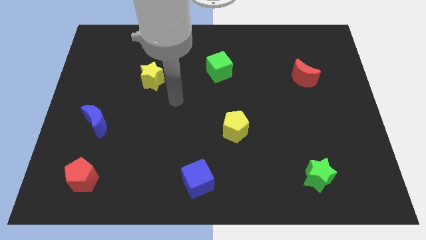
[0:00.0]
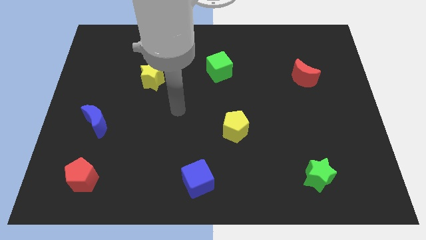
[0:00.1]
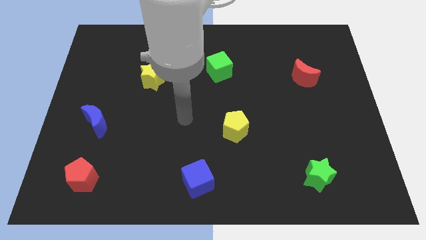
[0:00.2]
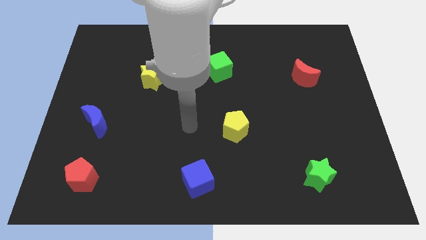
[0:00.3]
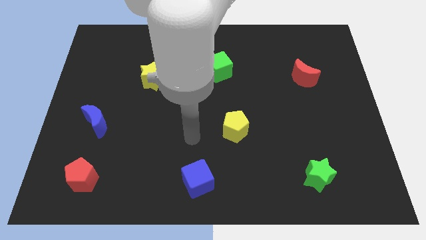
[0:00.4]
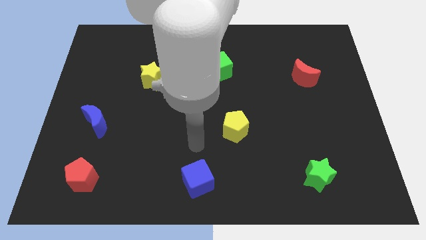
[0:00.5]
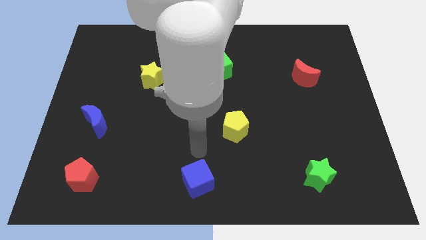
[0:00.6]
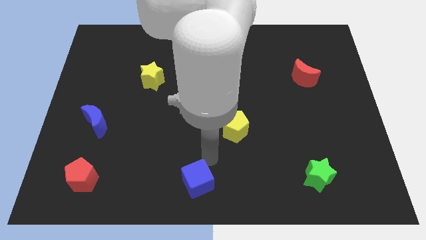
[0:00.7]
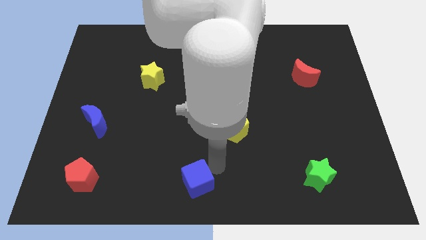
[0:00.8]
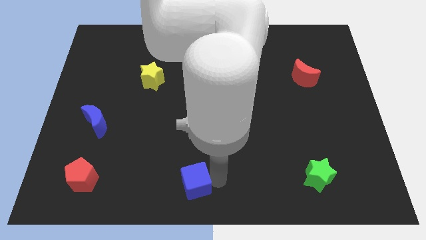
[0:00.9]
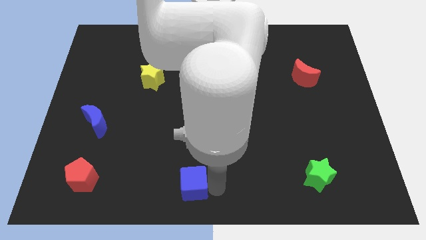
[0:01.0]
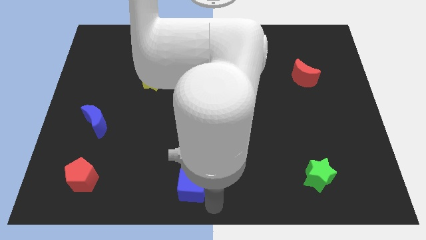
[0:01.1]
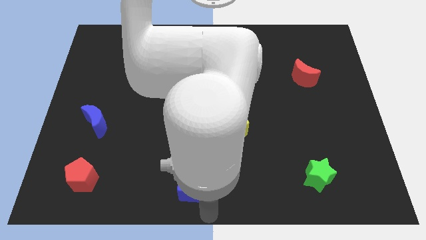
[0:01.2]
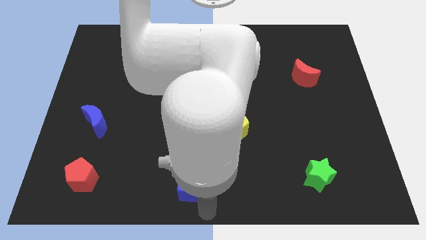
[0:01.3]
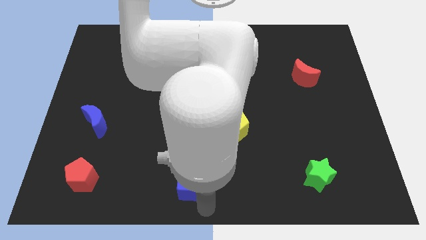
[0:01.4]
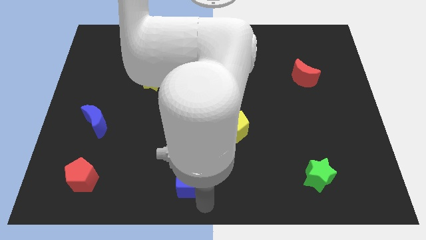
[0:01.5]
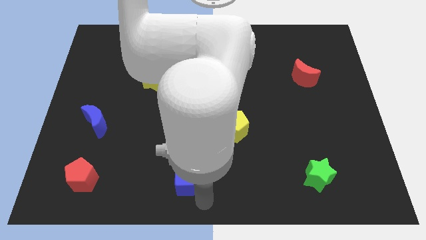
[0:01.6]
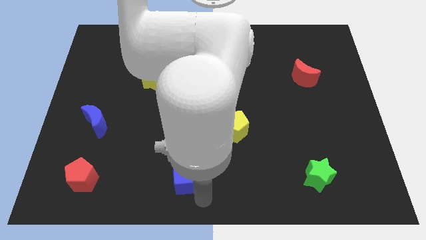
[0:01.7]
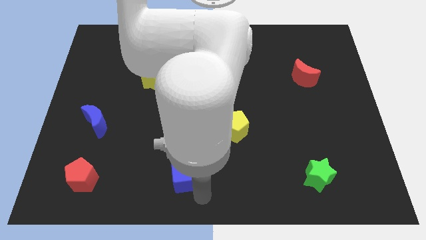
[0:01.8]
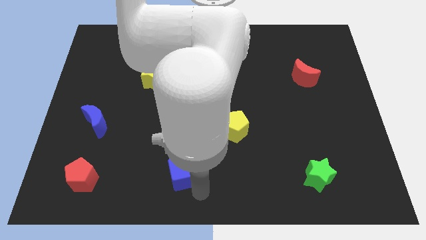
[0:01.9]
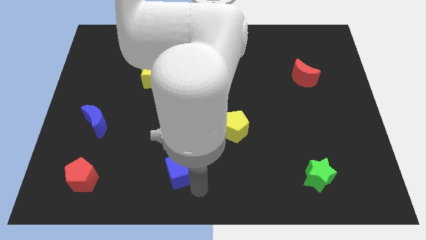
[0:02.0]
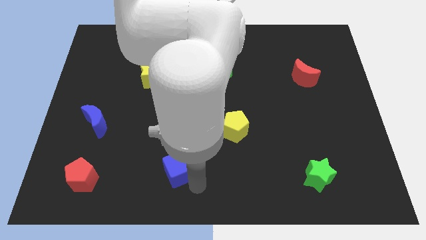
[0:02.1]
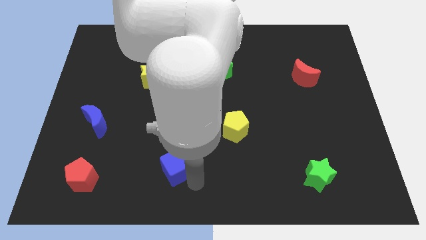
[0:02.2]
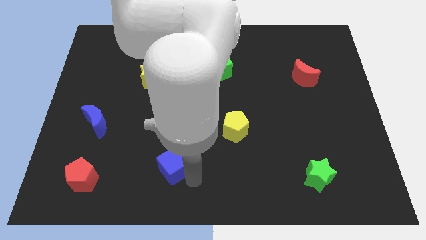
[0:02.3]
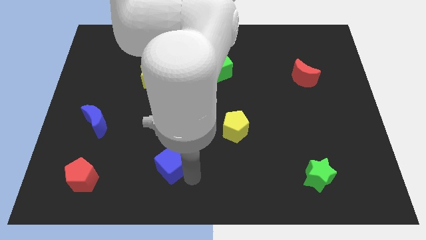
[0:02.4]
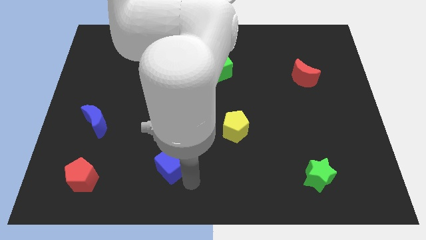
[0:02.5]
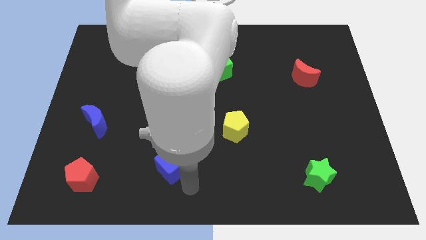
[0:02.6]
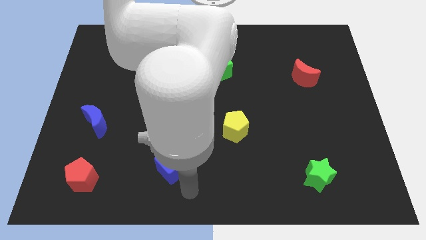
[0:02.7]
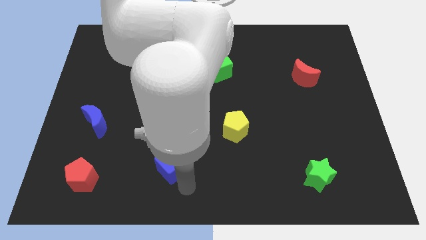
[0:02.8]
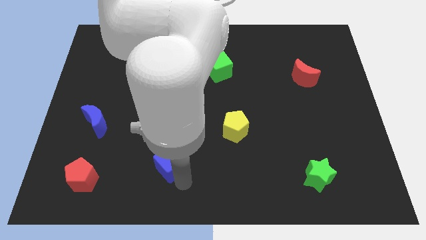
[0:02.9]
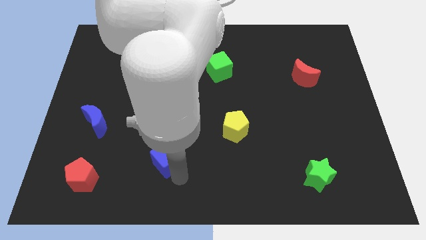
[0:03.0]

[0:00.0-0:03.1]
push the blue cube a little up and to the left

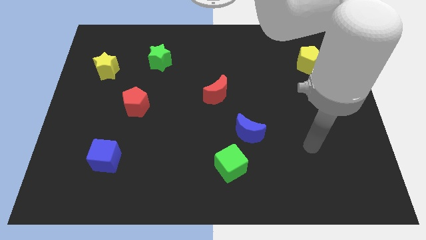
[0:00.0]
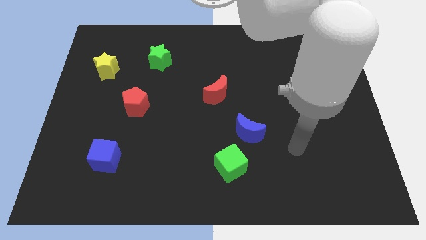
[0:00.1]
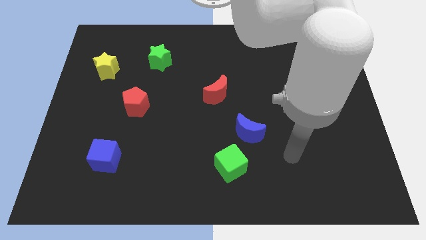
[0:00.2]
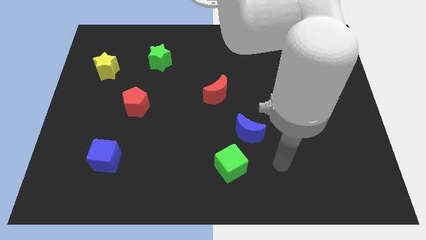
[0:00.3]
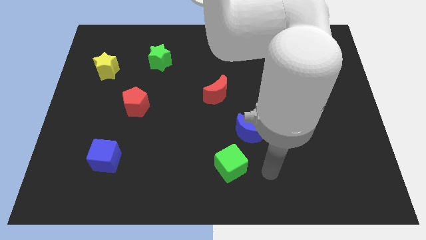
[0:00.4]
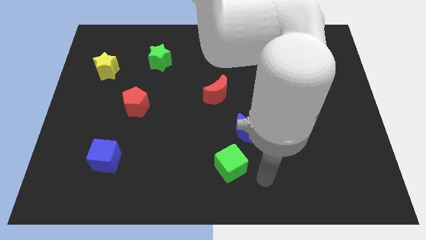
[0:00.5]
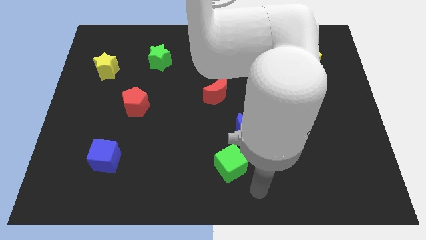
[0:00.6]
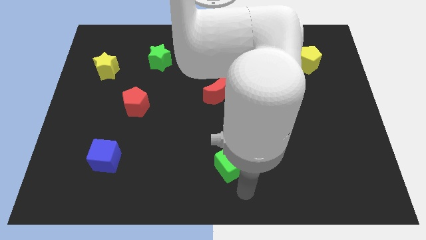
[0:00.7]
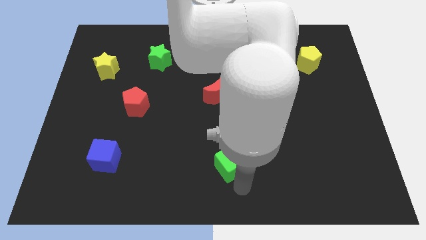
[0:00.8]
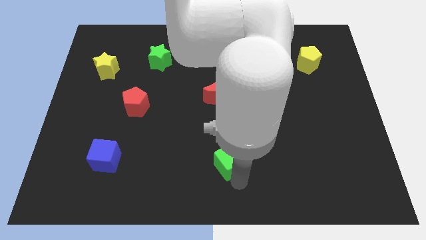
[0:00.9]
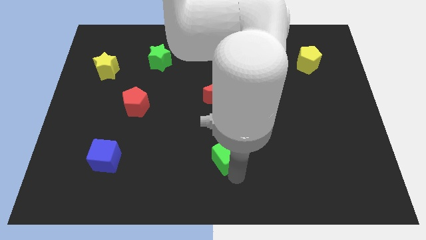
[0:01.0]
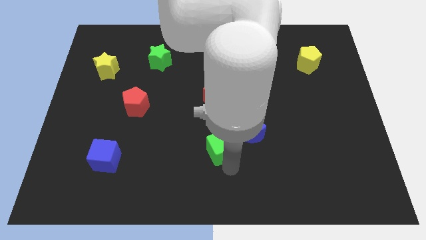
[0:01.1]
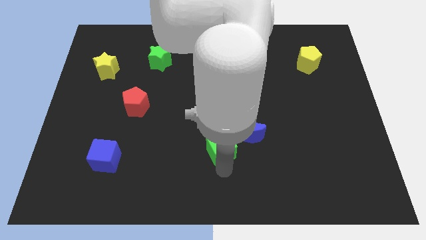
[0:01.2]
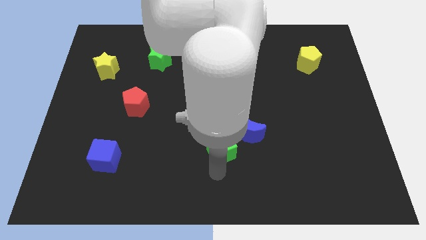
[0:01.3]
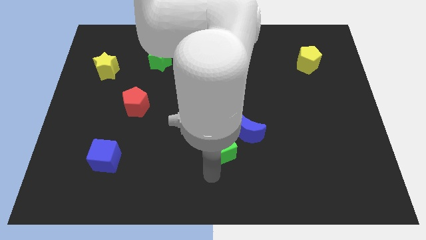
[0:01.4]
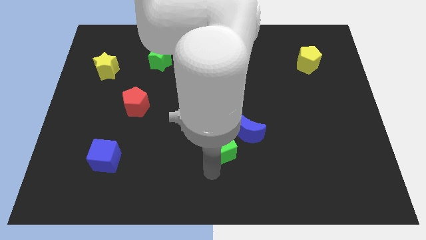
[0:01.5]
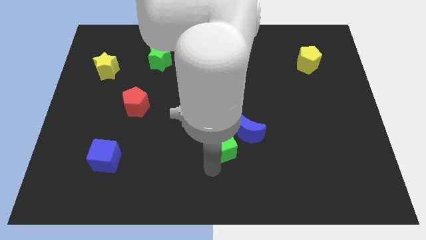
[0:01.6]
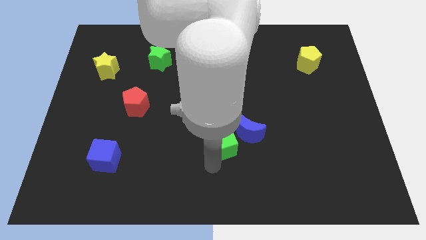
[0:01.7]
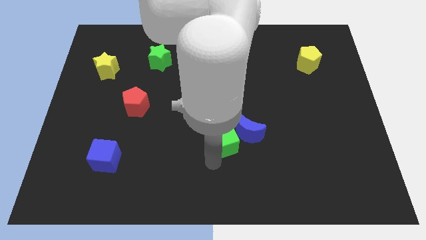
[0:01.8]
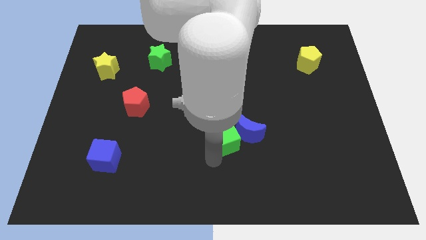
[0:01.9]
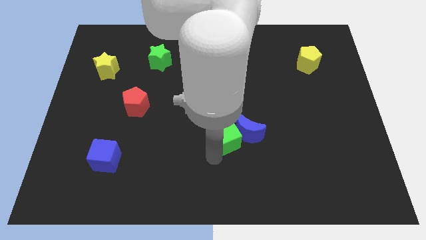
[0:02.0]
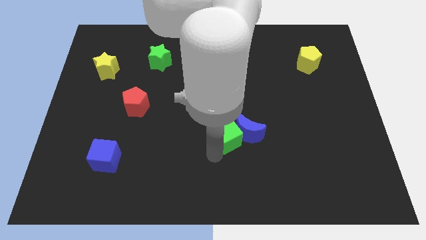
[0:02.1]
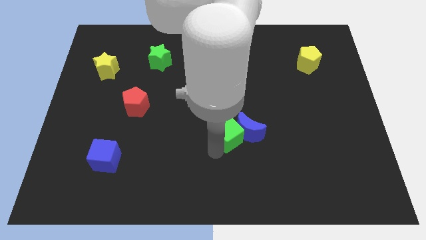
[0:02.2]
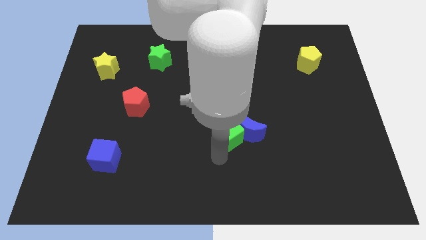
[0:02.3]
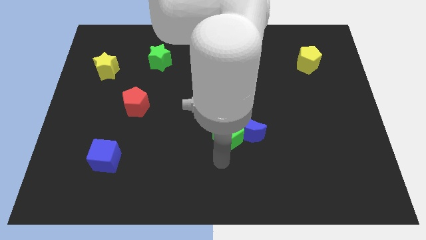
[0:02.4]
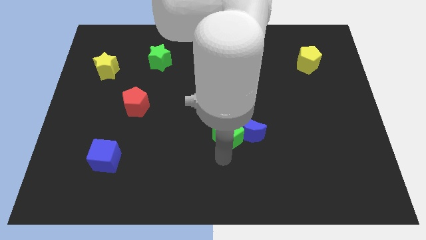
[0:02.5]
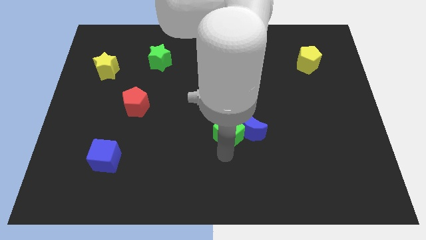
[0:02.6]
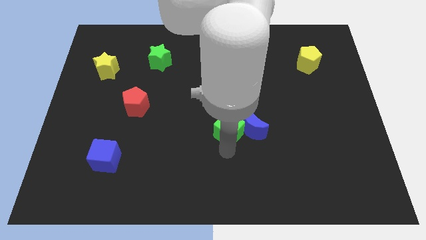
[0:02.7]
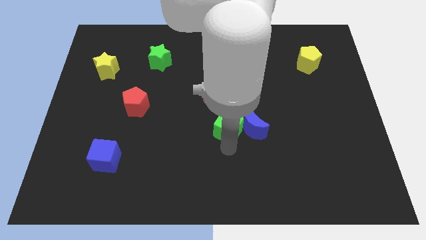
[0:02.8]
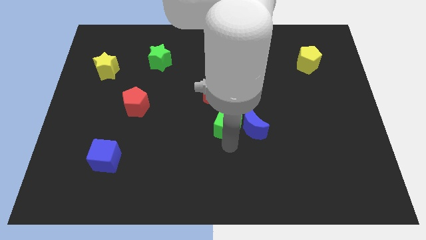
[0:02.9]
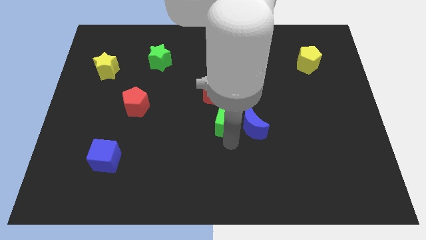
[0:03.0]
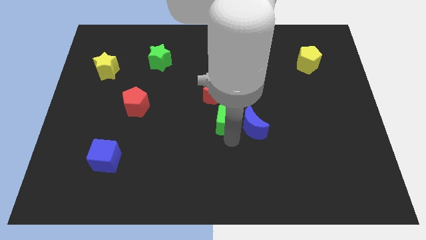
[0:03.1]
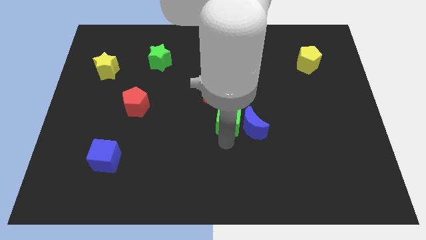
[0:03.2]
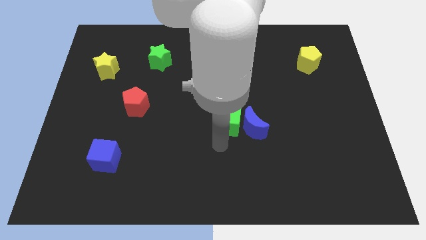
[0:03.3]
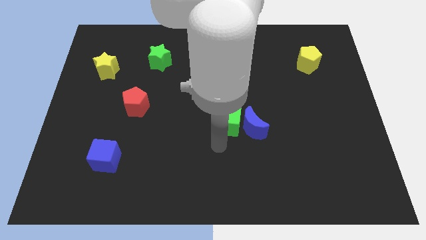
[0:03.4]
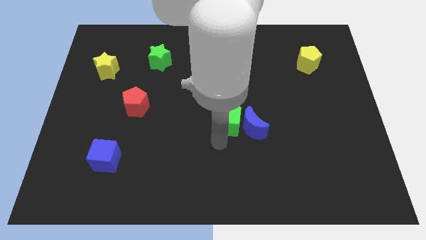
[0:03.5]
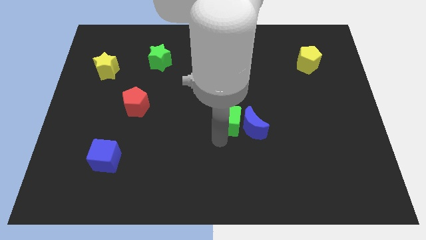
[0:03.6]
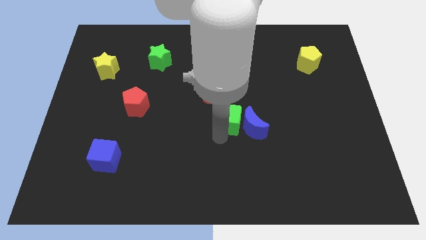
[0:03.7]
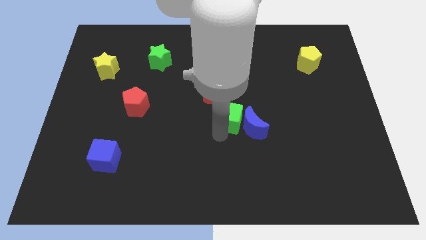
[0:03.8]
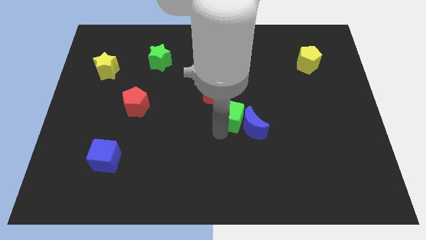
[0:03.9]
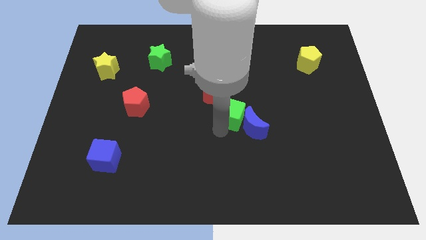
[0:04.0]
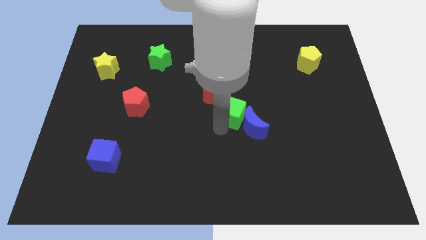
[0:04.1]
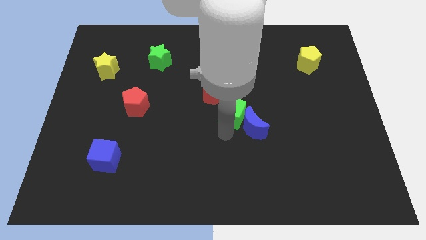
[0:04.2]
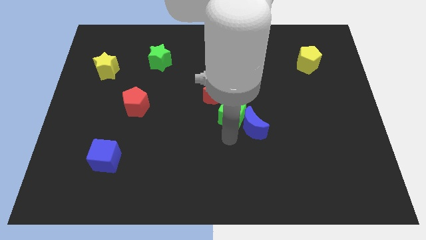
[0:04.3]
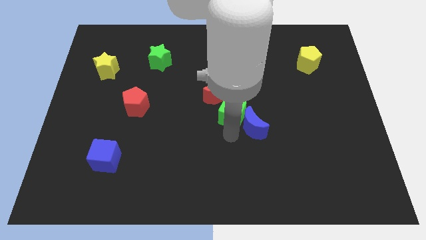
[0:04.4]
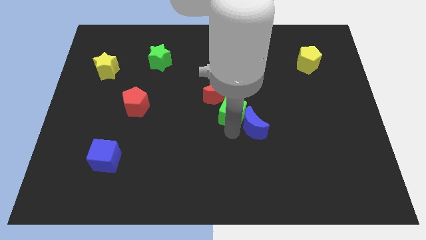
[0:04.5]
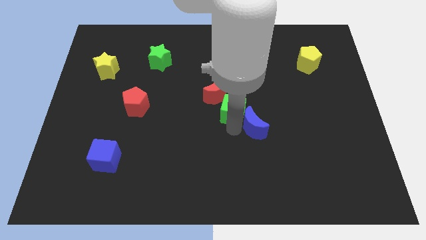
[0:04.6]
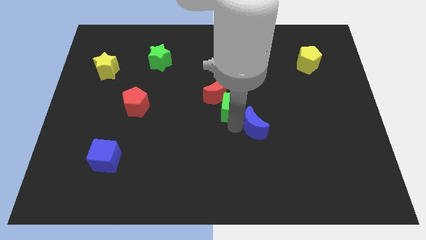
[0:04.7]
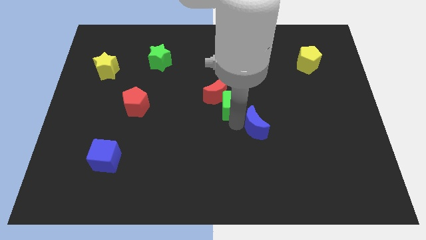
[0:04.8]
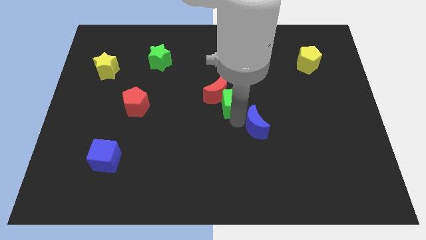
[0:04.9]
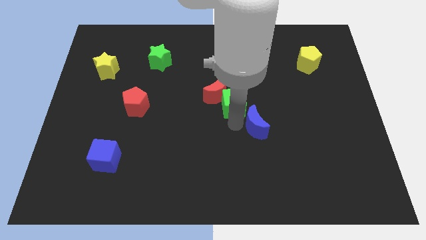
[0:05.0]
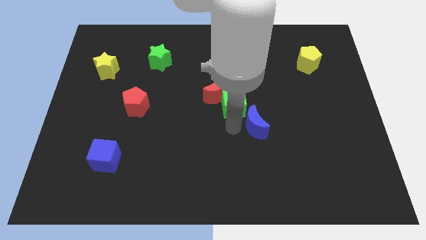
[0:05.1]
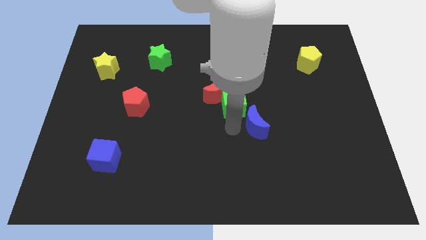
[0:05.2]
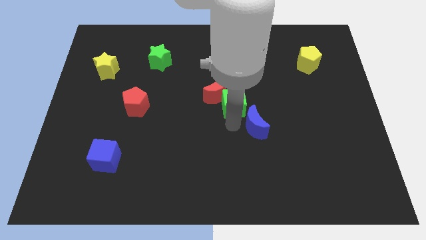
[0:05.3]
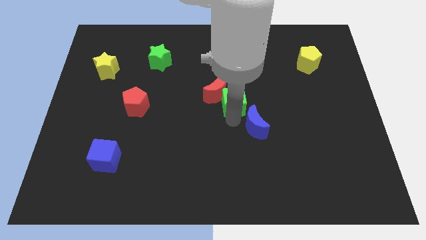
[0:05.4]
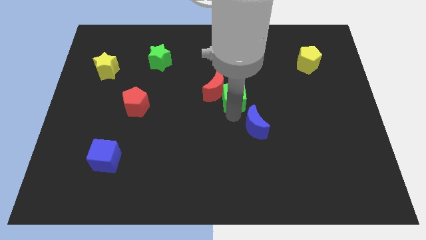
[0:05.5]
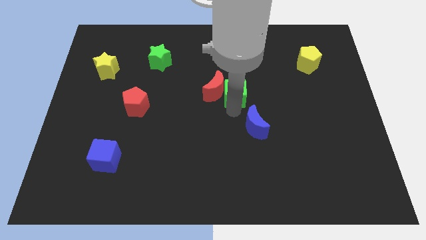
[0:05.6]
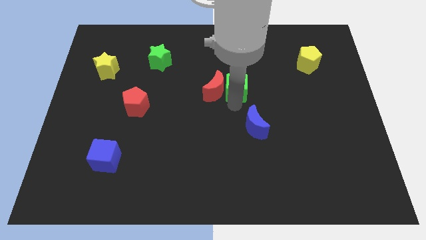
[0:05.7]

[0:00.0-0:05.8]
move the green cube up
